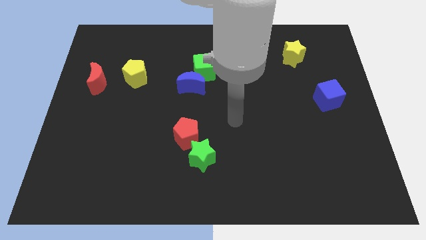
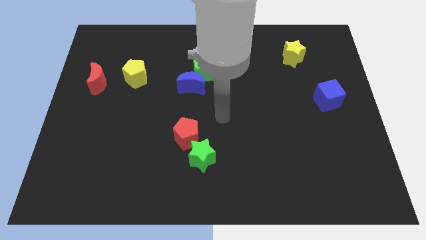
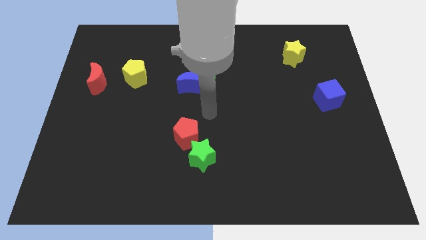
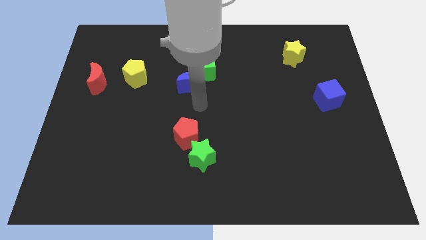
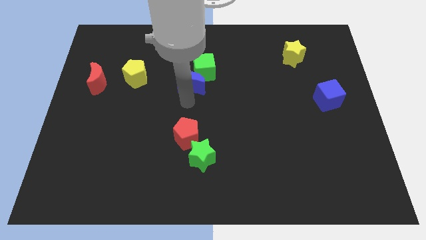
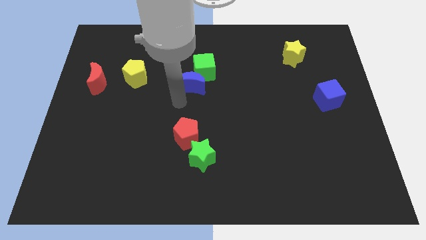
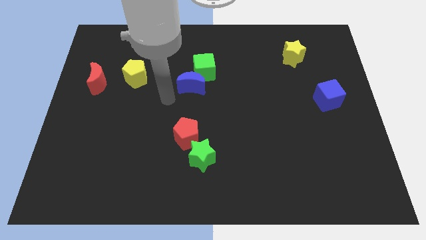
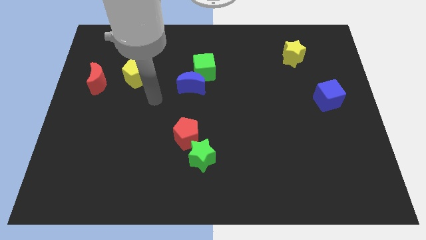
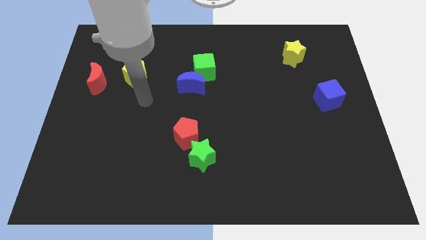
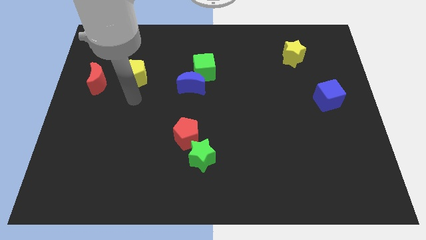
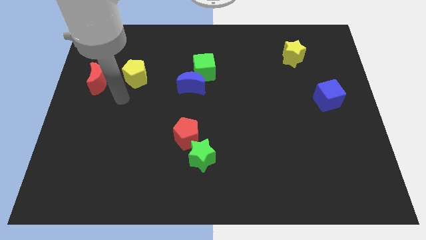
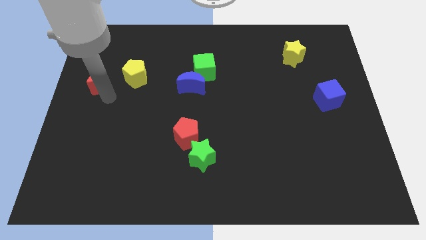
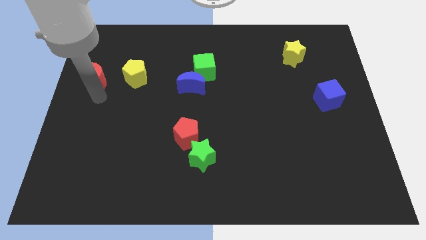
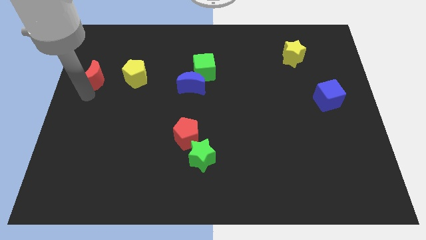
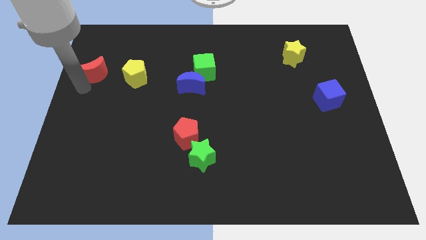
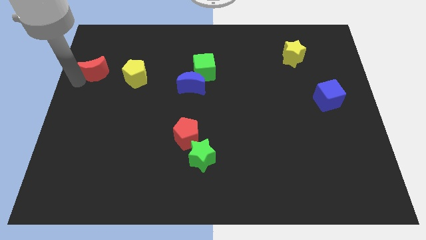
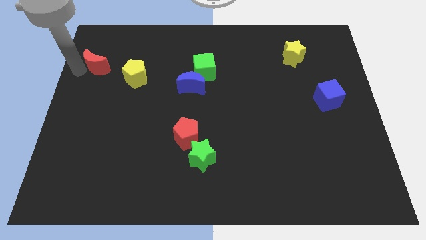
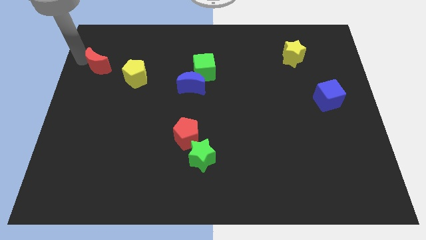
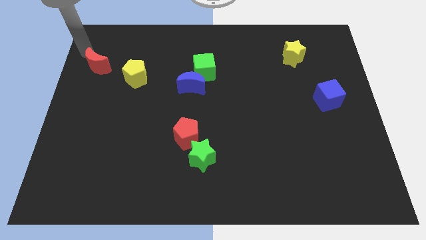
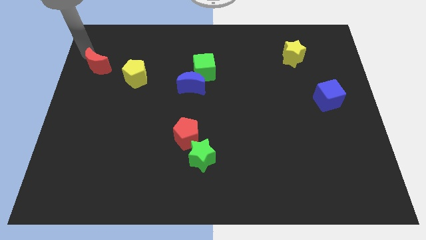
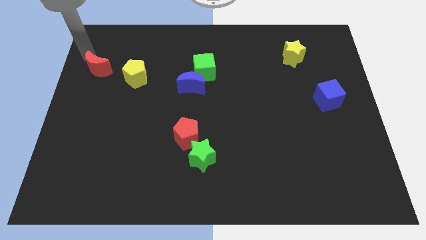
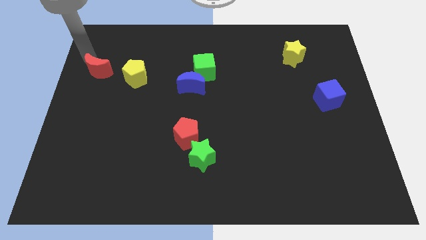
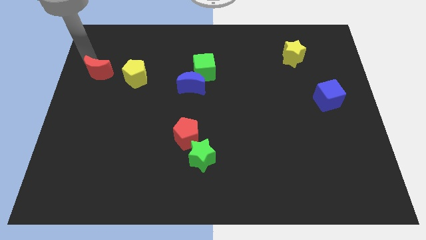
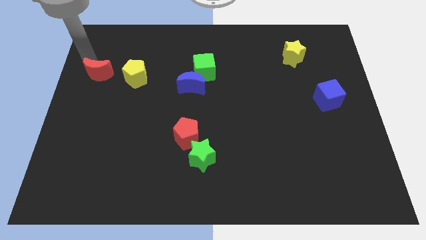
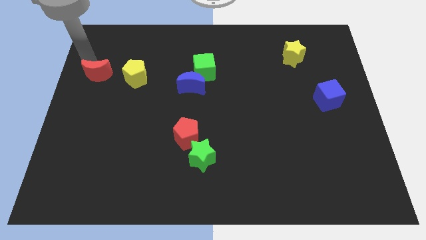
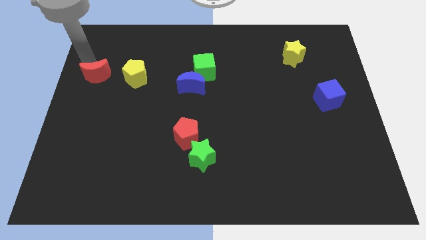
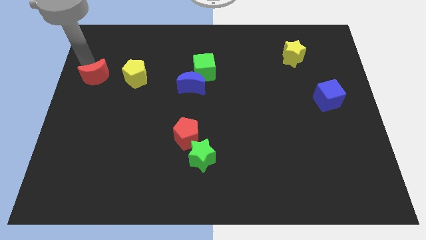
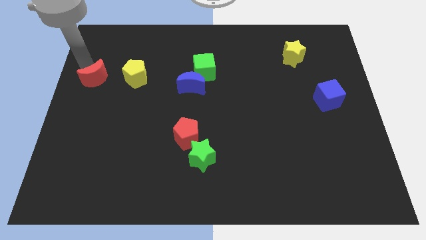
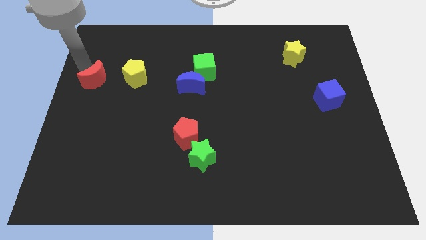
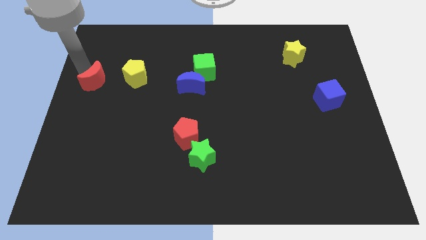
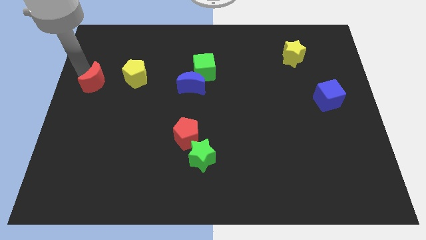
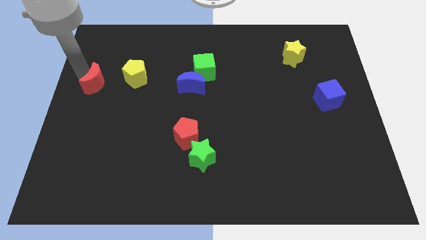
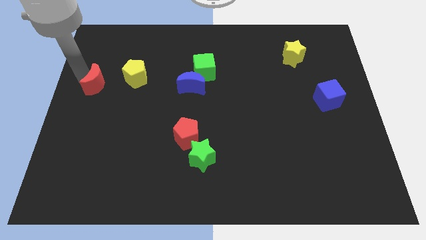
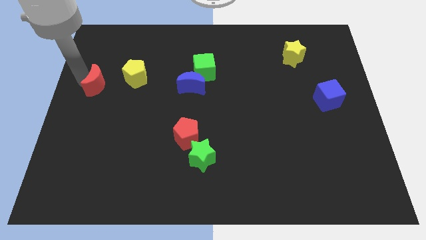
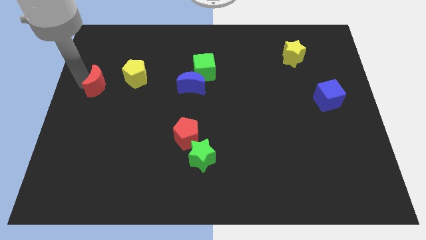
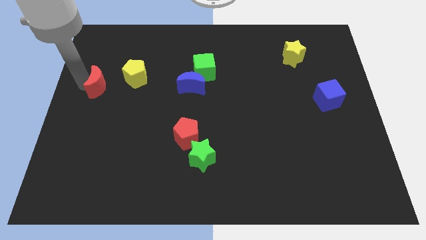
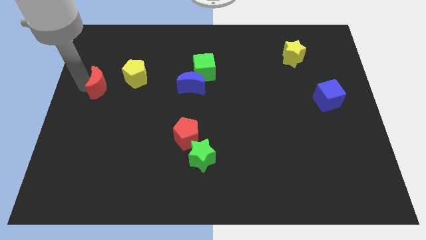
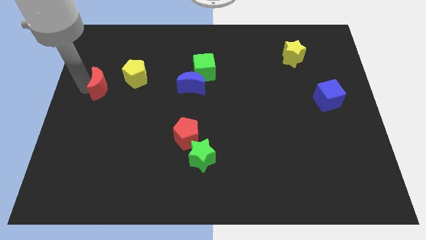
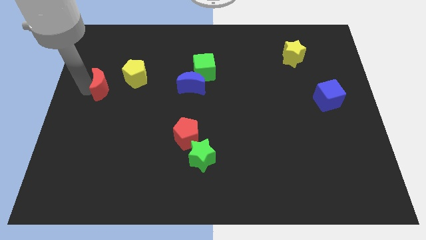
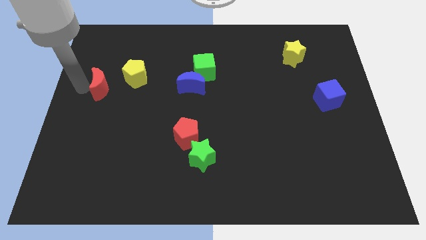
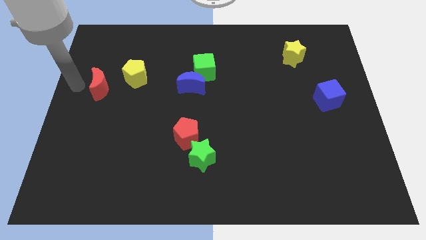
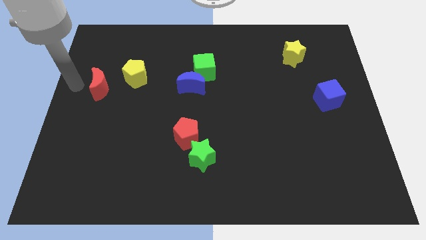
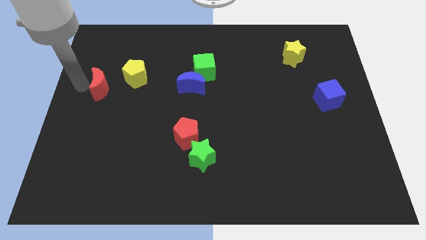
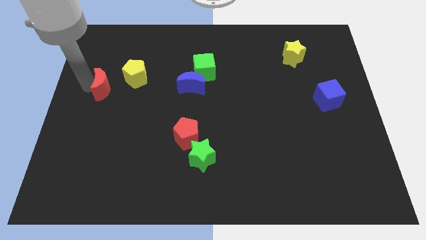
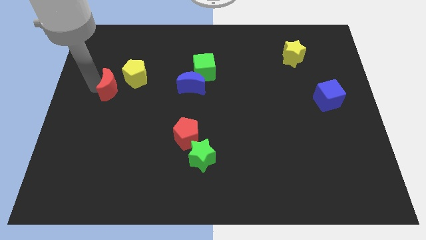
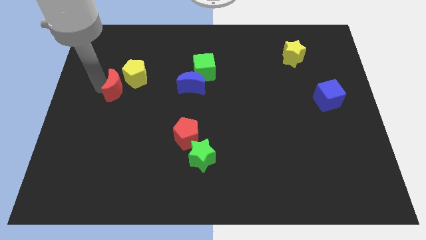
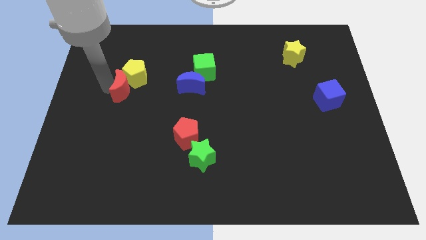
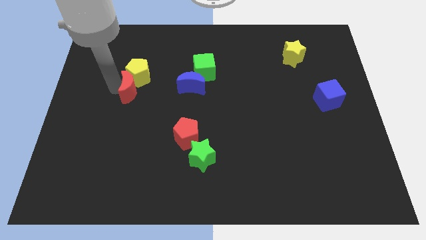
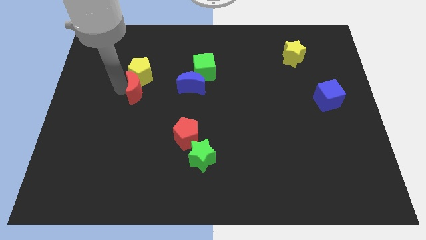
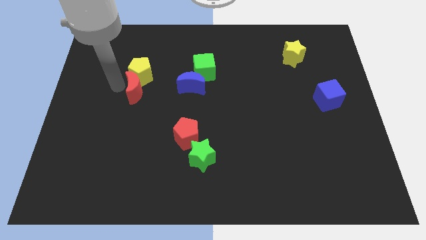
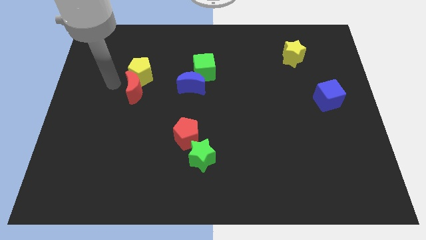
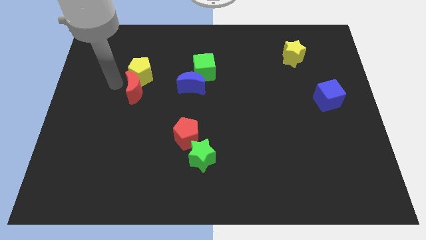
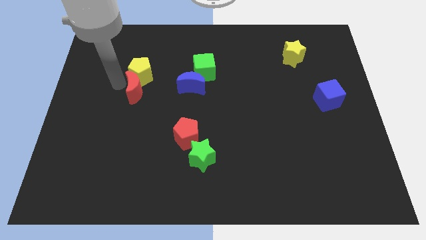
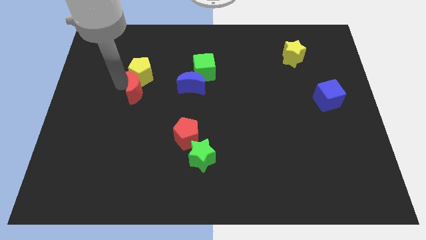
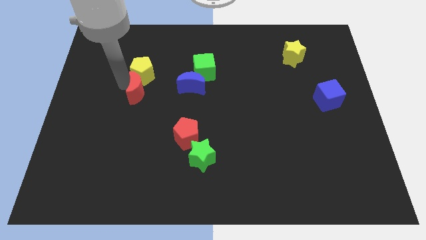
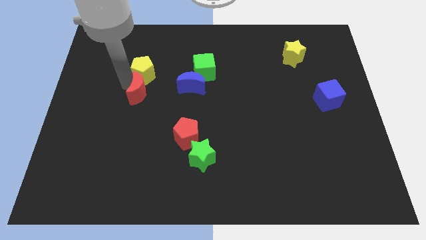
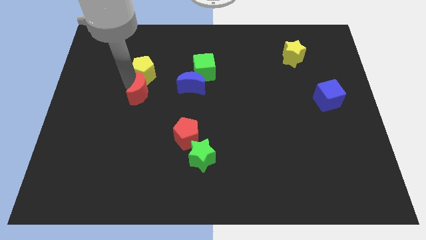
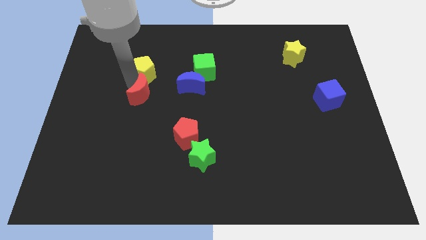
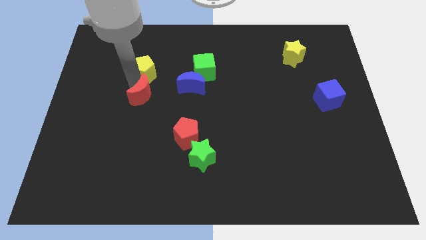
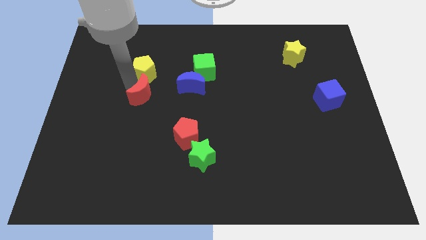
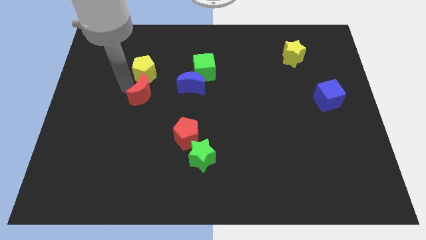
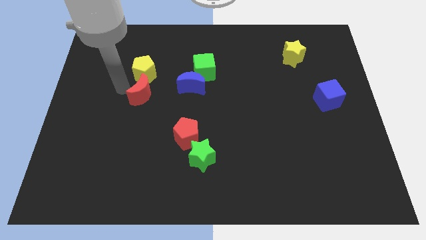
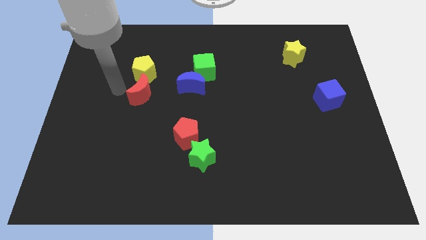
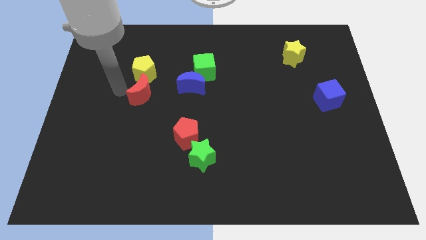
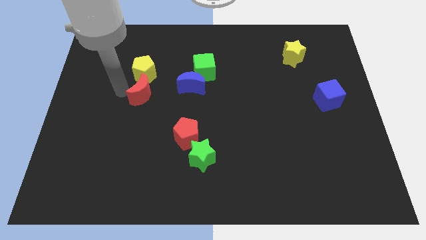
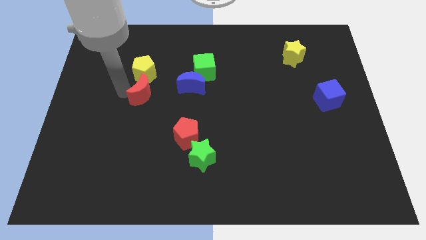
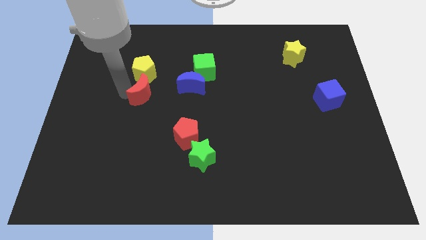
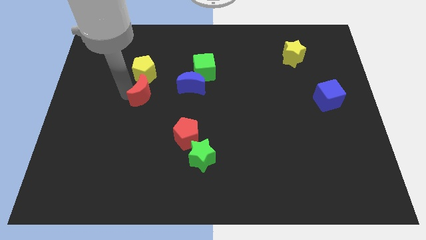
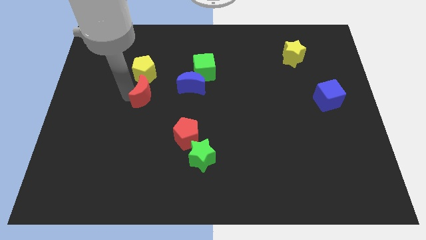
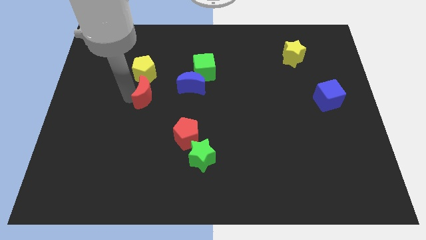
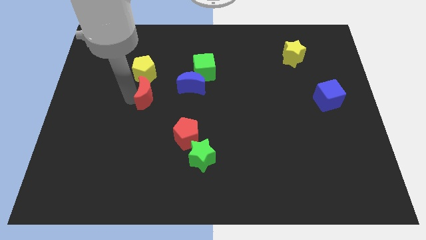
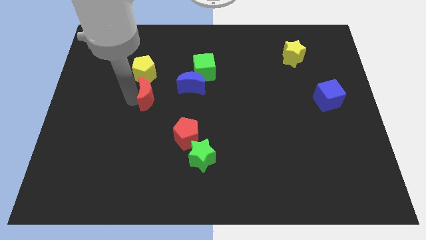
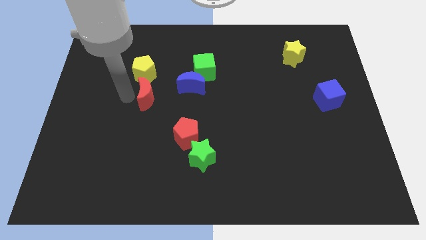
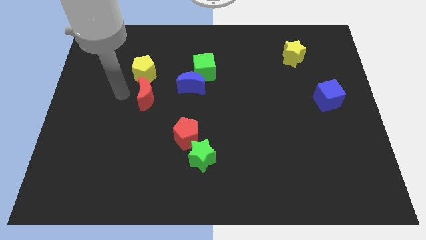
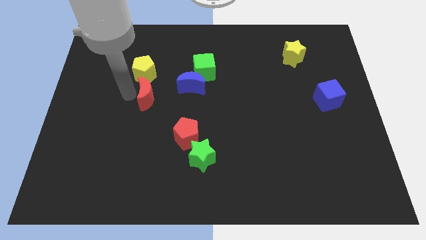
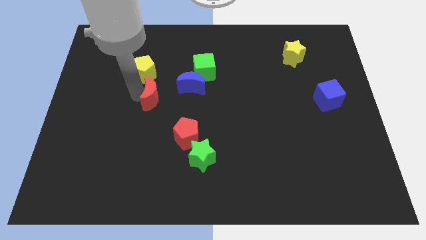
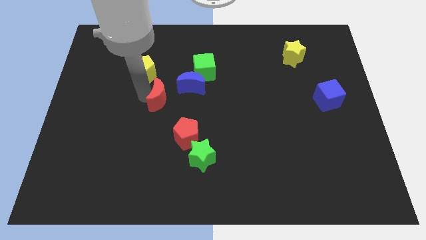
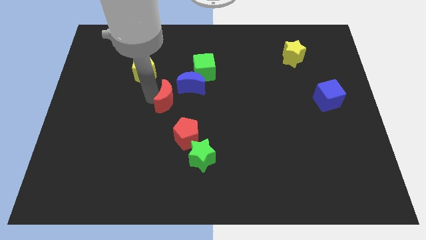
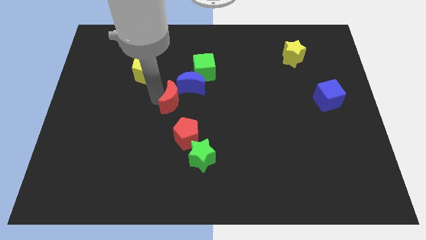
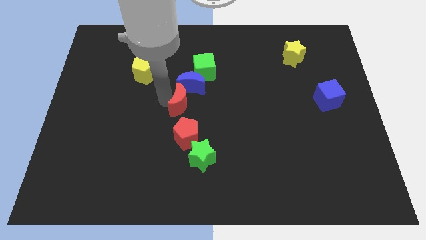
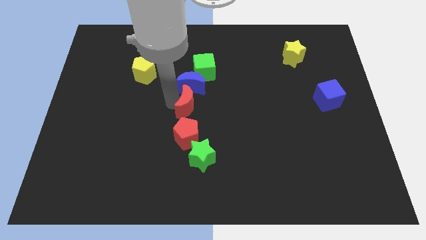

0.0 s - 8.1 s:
put the red moon to the bottom of the green cube
